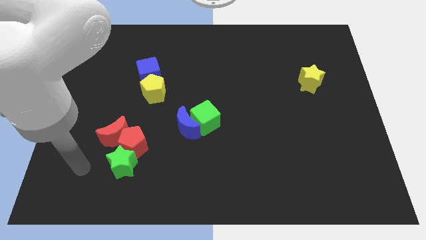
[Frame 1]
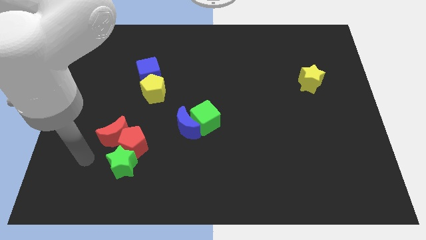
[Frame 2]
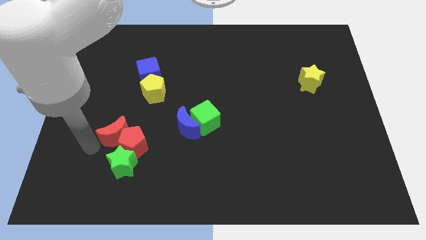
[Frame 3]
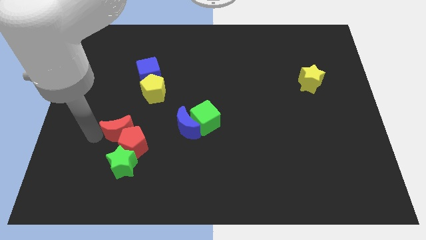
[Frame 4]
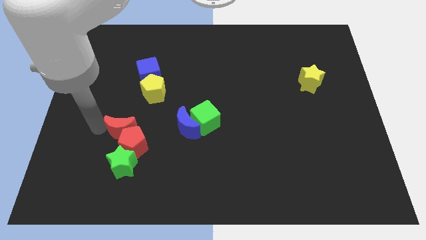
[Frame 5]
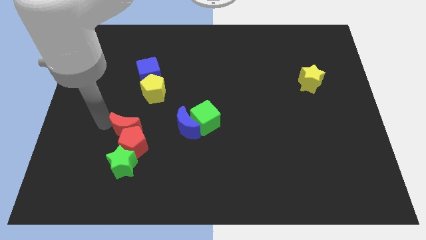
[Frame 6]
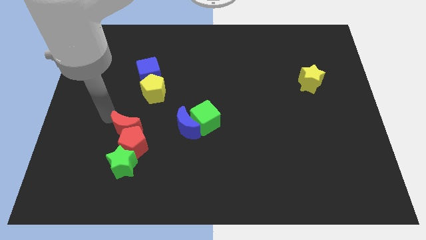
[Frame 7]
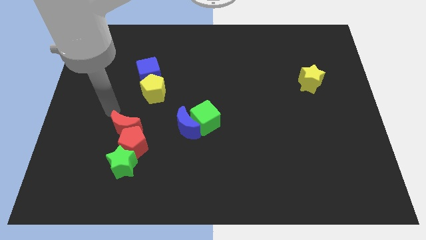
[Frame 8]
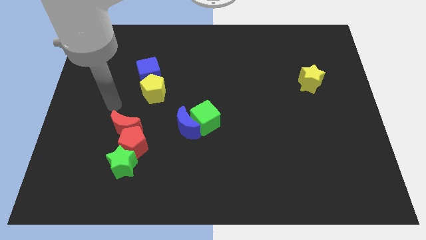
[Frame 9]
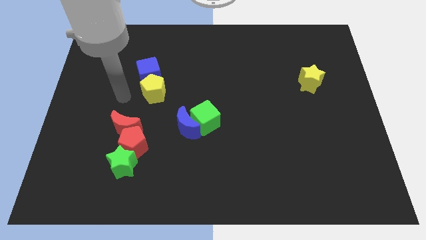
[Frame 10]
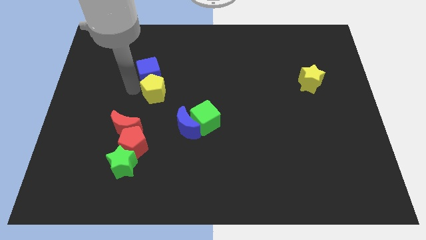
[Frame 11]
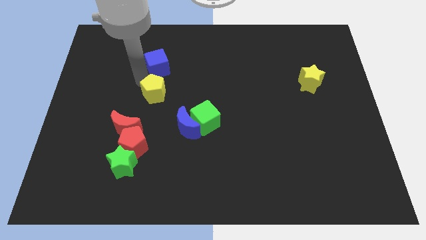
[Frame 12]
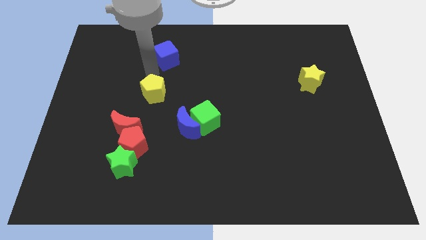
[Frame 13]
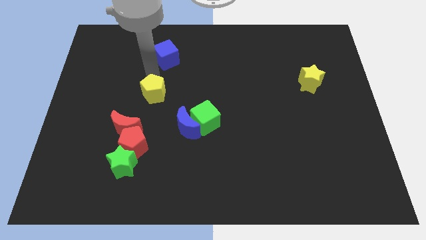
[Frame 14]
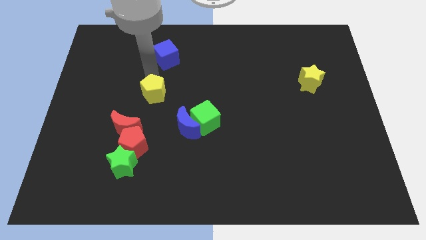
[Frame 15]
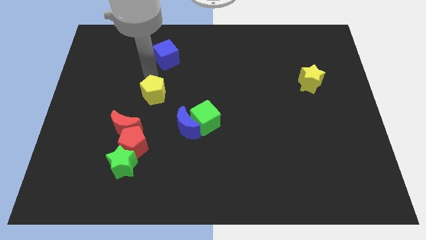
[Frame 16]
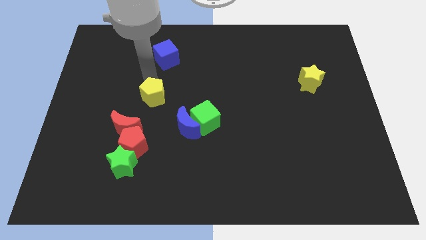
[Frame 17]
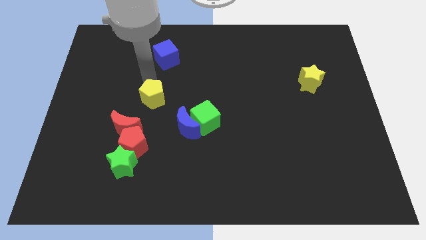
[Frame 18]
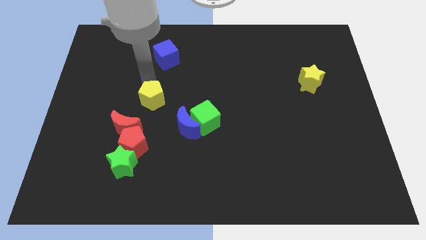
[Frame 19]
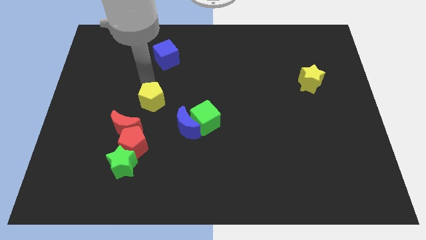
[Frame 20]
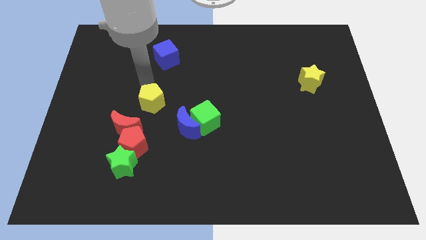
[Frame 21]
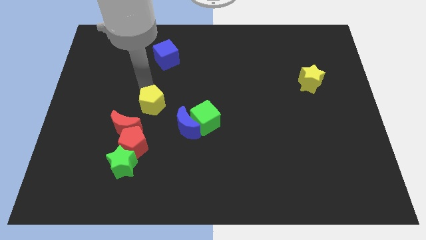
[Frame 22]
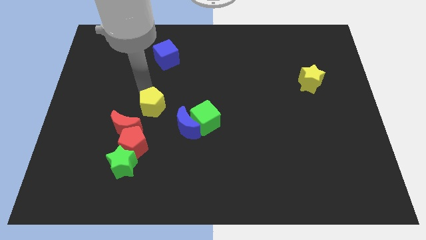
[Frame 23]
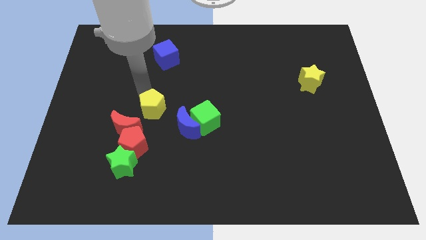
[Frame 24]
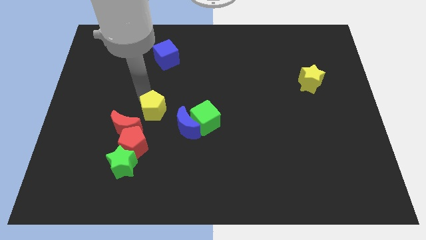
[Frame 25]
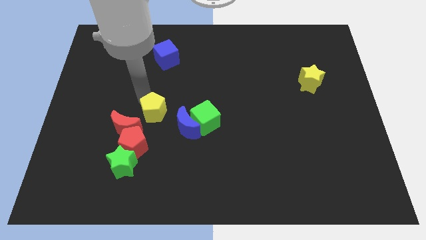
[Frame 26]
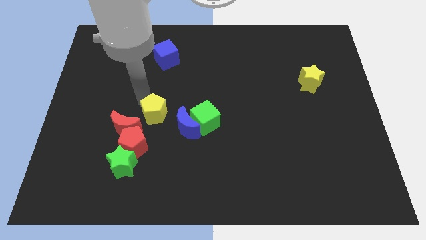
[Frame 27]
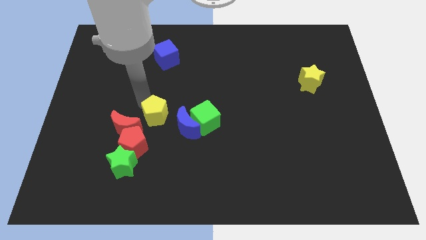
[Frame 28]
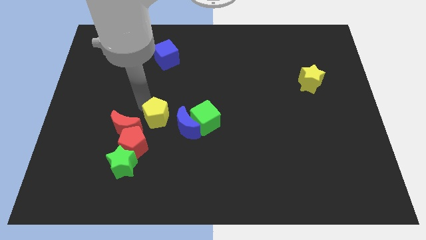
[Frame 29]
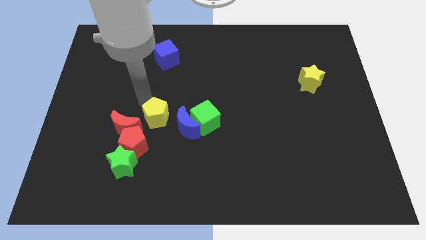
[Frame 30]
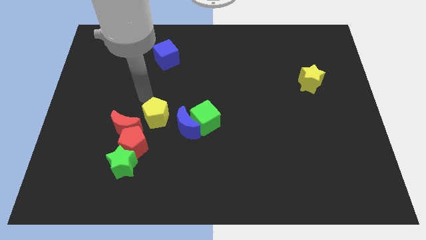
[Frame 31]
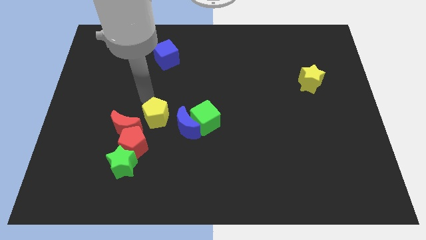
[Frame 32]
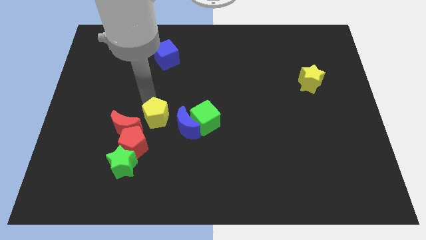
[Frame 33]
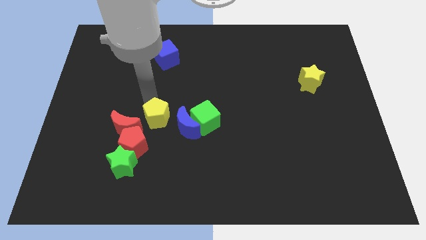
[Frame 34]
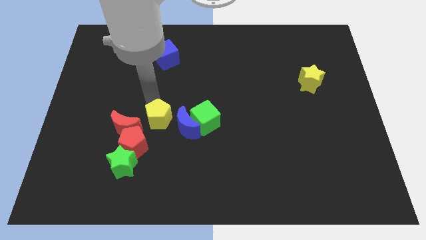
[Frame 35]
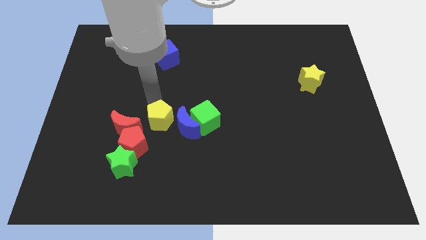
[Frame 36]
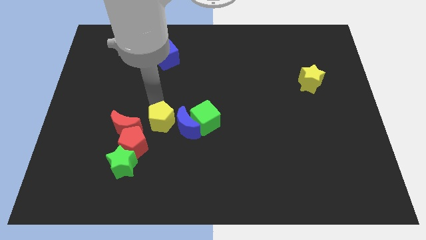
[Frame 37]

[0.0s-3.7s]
move the yellow pentagon somewhat downwards and to the right

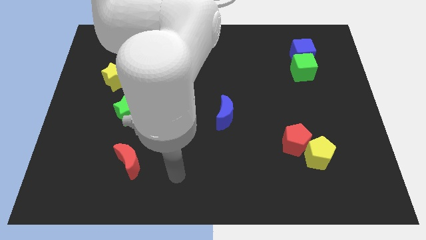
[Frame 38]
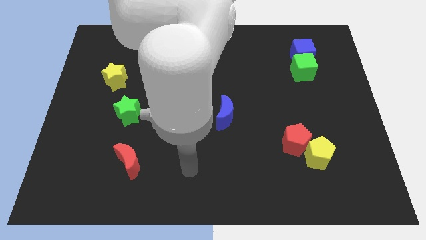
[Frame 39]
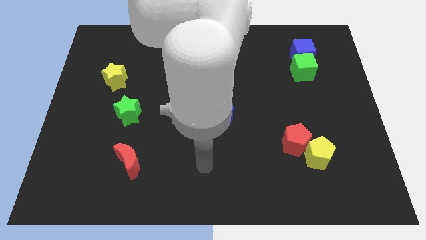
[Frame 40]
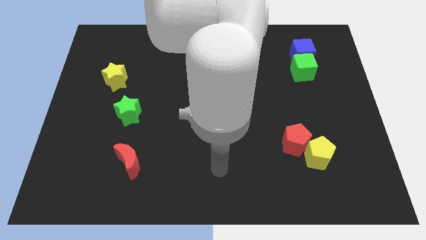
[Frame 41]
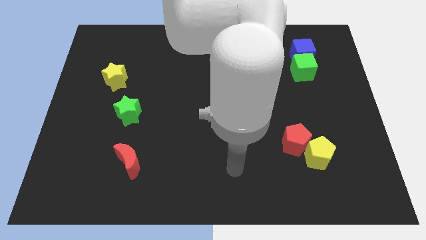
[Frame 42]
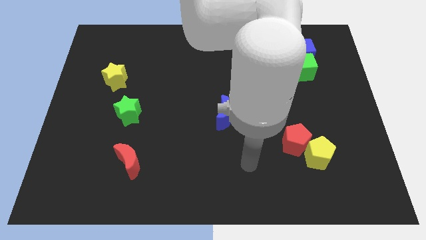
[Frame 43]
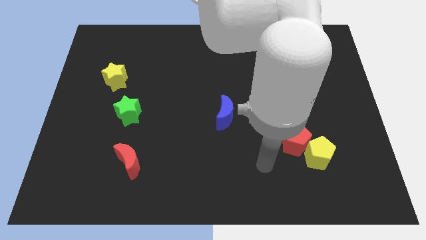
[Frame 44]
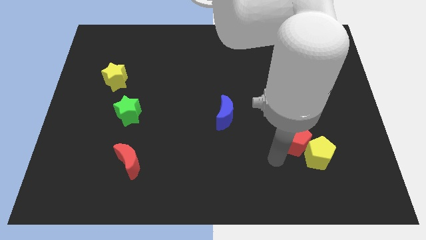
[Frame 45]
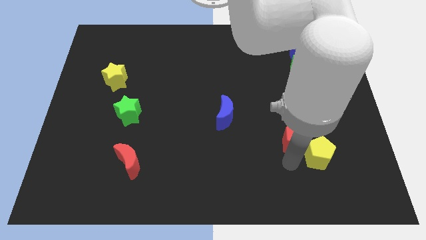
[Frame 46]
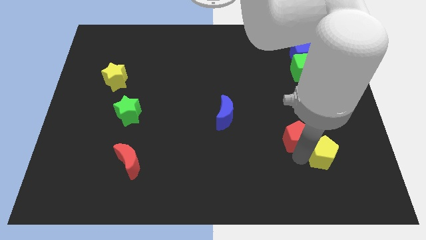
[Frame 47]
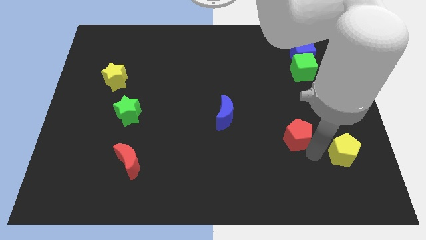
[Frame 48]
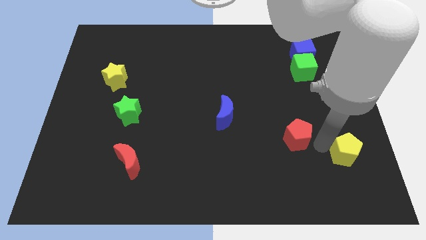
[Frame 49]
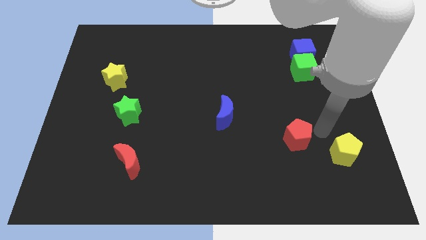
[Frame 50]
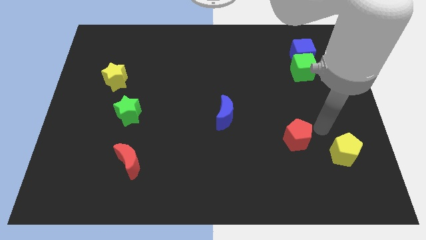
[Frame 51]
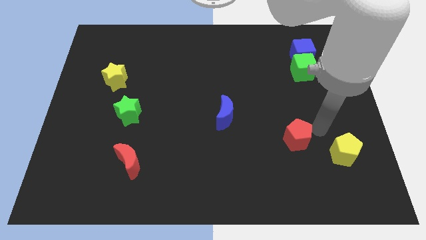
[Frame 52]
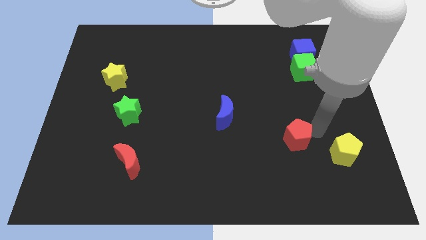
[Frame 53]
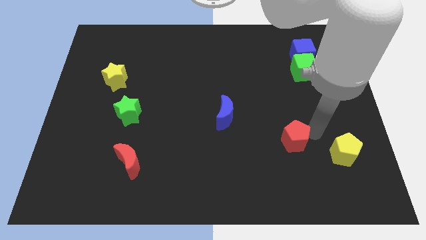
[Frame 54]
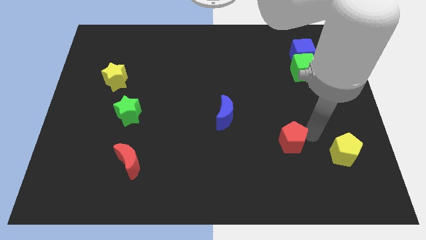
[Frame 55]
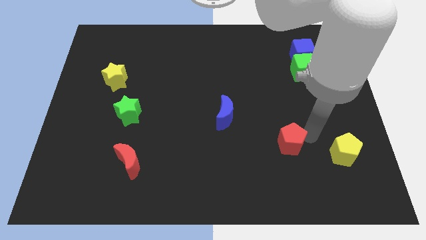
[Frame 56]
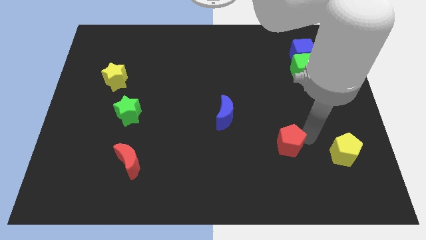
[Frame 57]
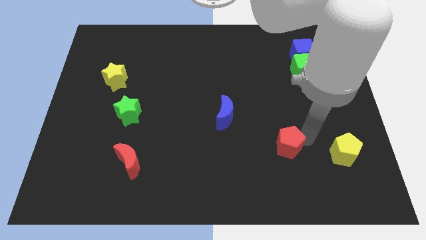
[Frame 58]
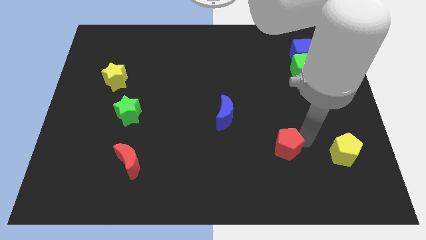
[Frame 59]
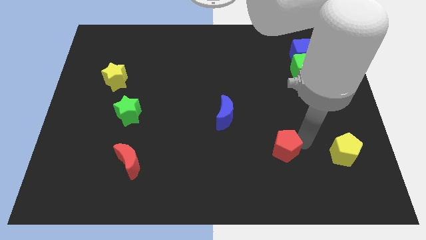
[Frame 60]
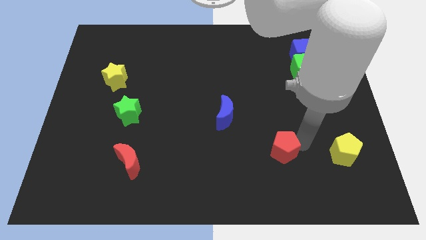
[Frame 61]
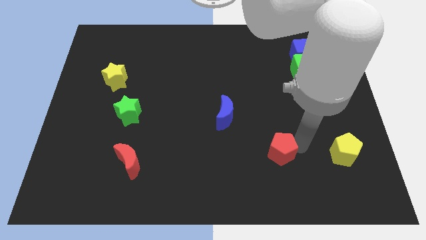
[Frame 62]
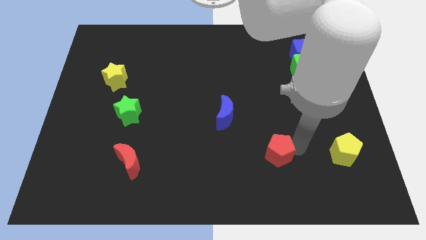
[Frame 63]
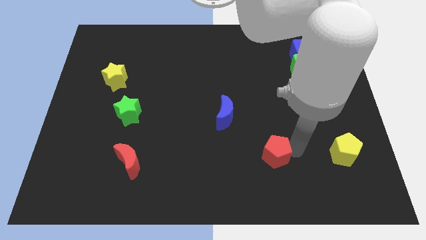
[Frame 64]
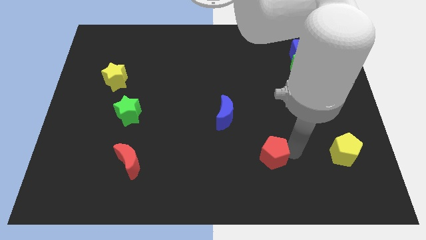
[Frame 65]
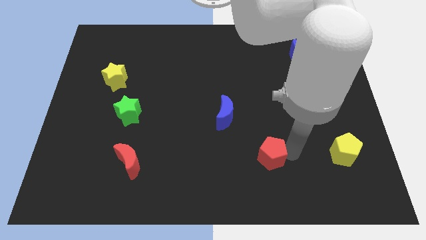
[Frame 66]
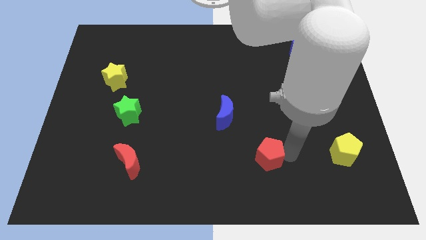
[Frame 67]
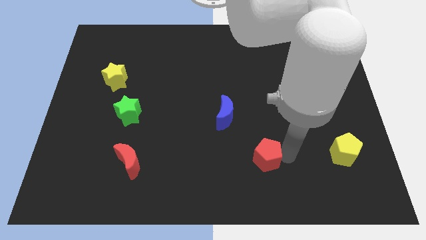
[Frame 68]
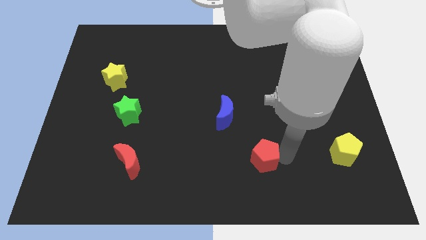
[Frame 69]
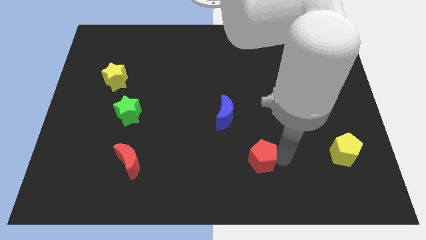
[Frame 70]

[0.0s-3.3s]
move the red pentagon somewhat left

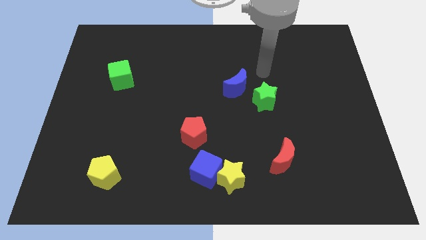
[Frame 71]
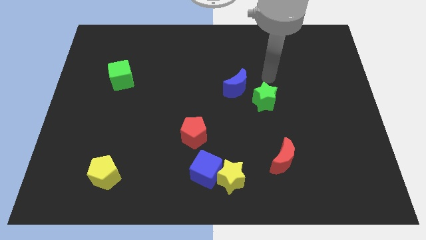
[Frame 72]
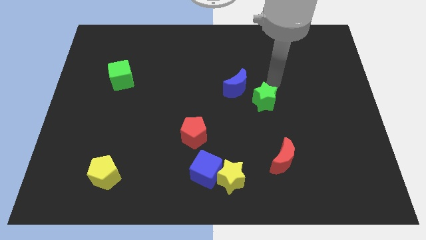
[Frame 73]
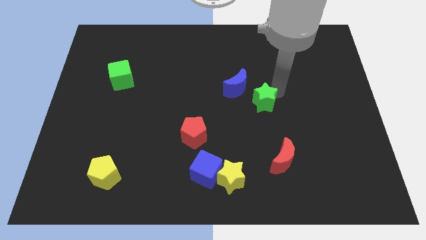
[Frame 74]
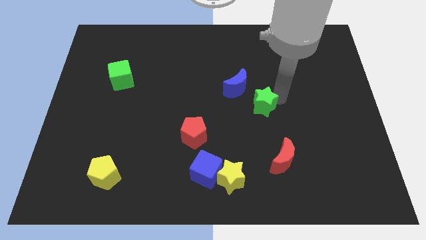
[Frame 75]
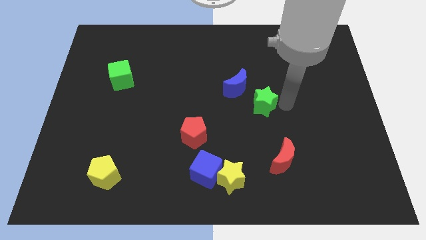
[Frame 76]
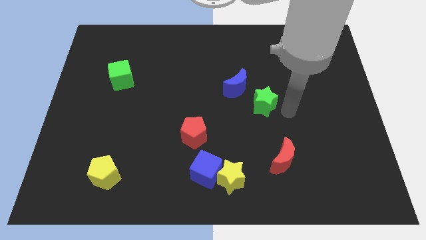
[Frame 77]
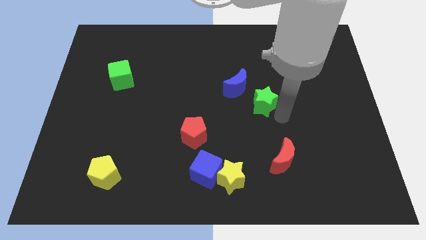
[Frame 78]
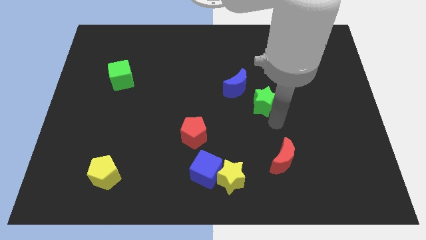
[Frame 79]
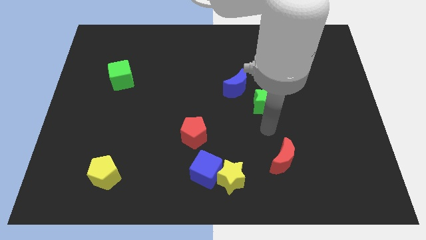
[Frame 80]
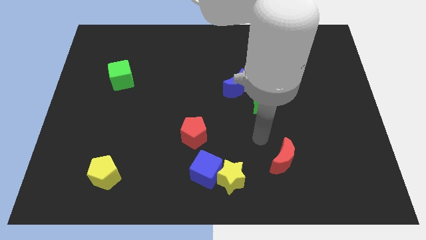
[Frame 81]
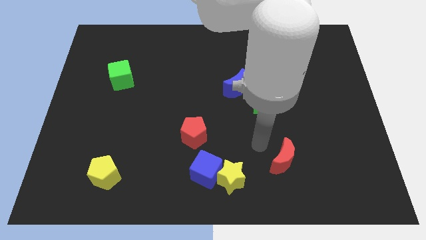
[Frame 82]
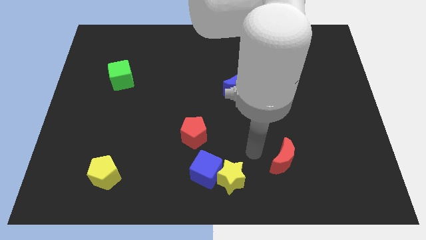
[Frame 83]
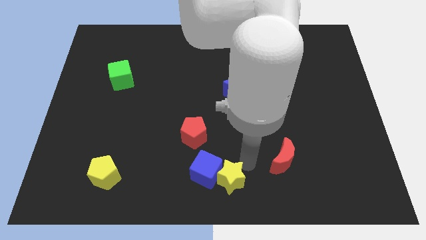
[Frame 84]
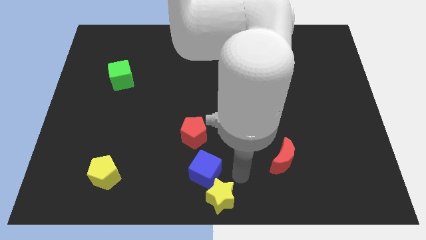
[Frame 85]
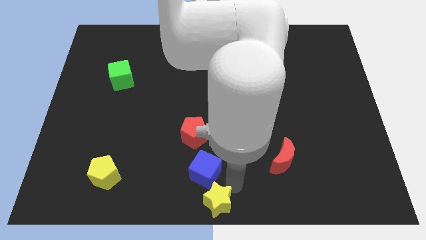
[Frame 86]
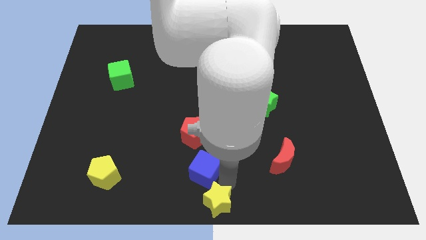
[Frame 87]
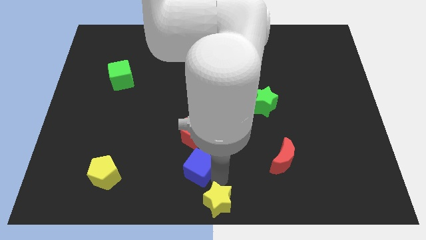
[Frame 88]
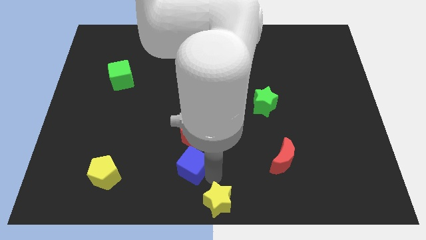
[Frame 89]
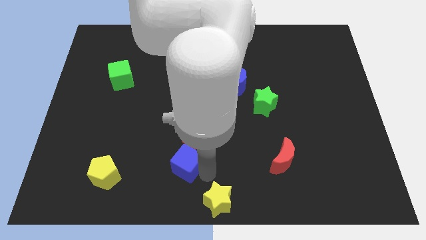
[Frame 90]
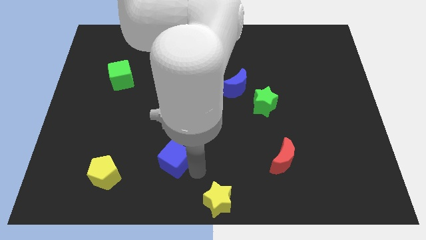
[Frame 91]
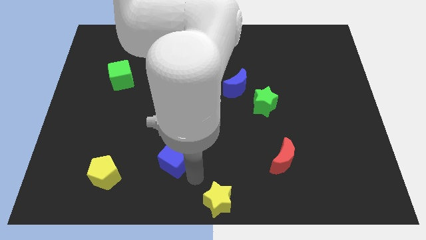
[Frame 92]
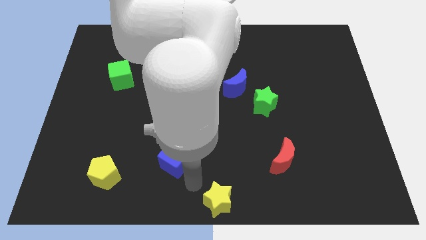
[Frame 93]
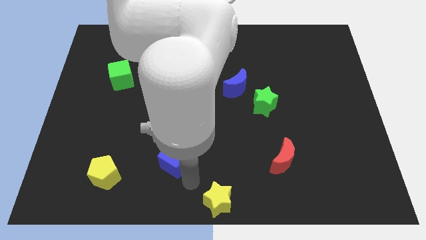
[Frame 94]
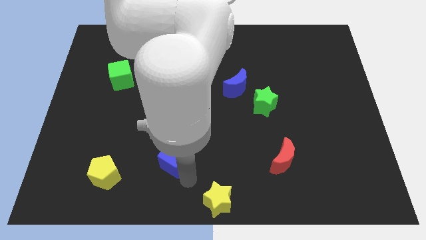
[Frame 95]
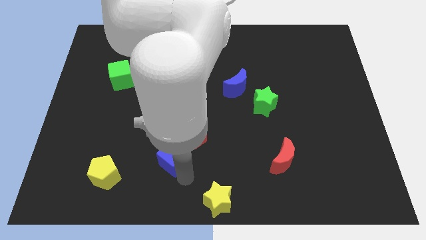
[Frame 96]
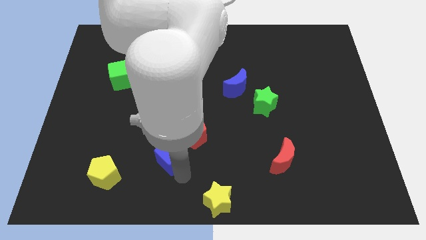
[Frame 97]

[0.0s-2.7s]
push the blue cube upwards and left slightly
